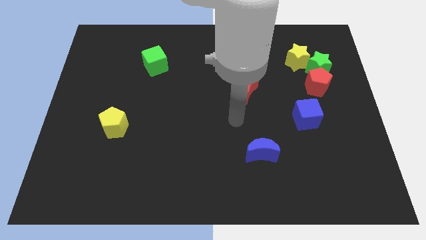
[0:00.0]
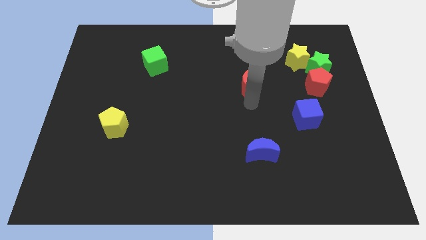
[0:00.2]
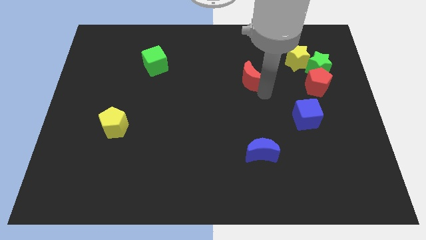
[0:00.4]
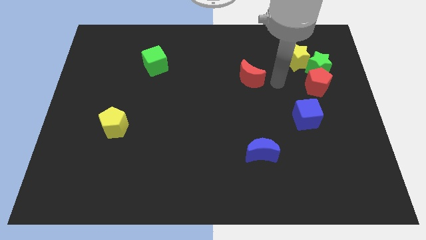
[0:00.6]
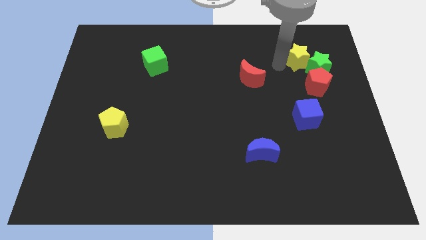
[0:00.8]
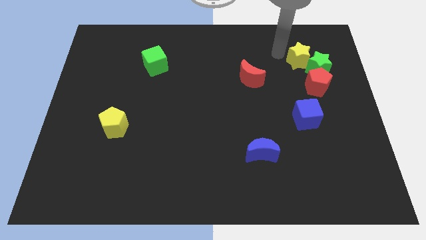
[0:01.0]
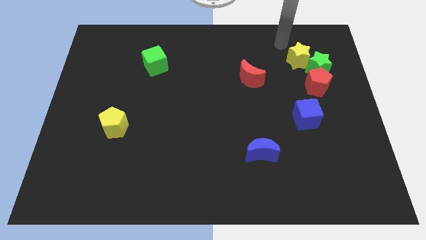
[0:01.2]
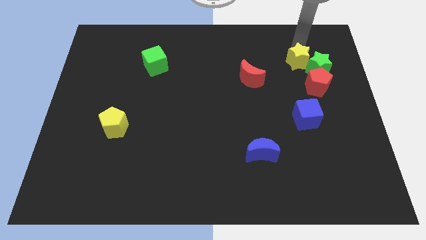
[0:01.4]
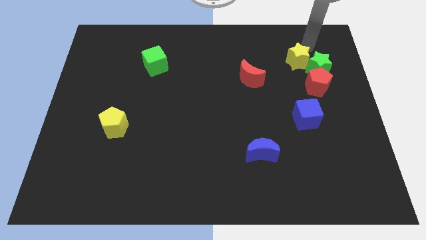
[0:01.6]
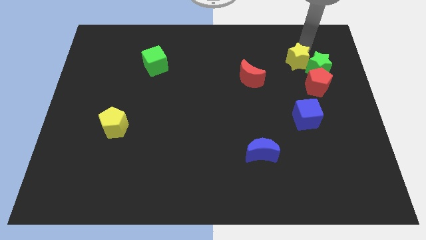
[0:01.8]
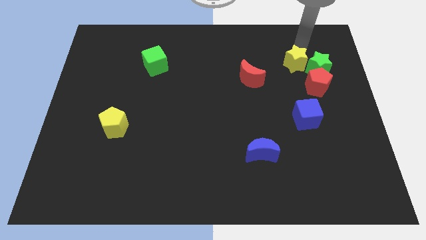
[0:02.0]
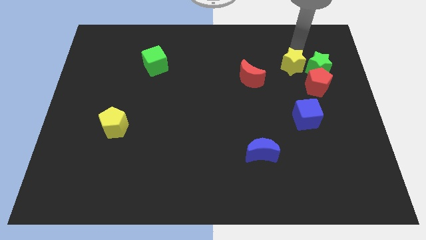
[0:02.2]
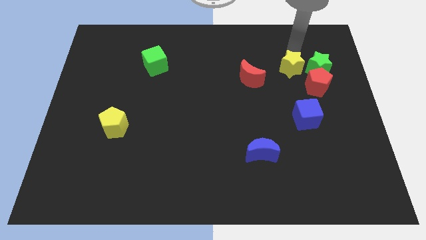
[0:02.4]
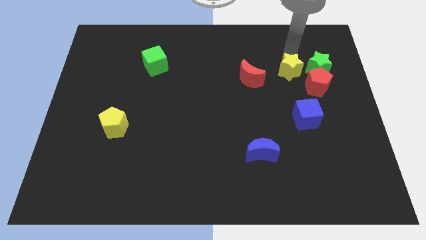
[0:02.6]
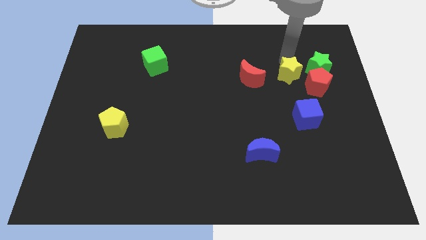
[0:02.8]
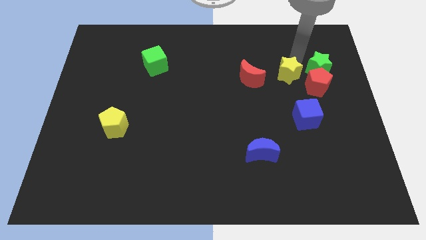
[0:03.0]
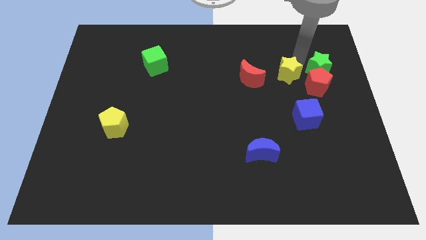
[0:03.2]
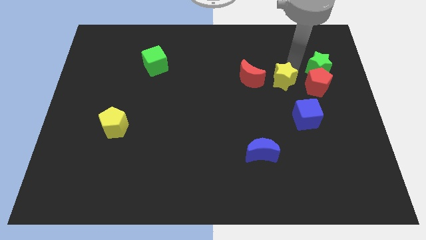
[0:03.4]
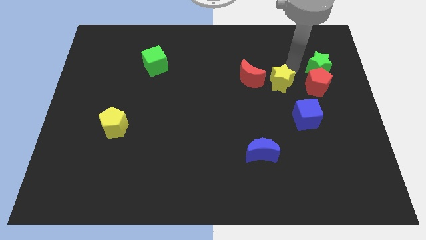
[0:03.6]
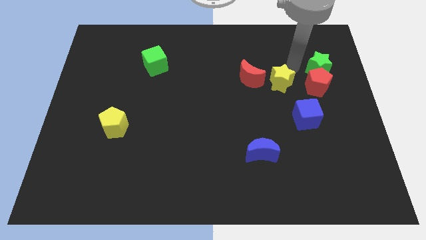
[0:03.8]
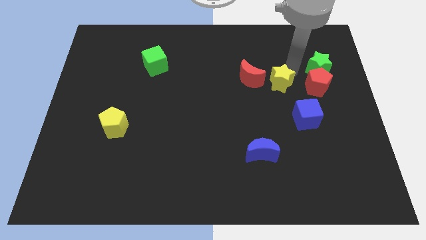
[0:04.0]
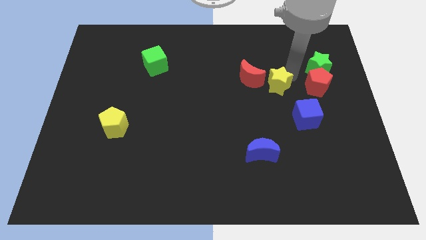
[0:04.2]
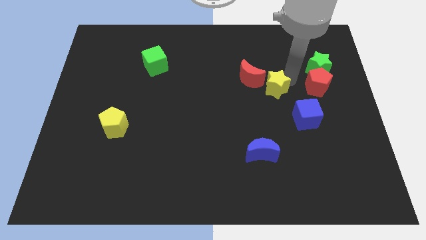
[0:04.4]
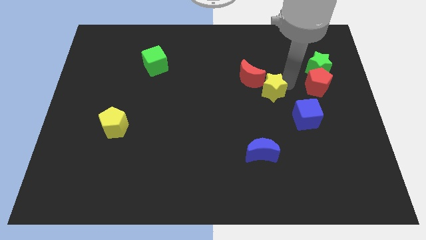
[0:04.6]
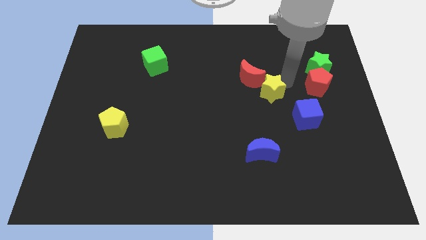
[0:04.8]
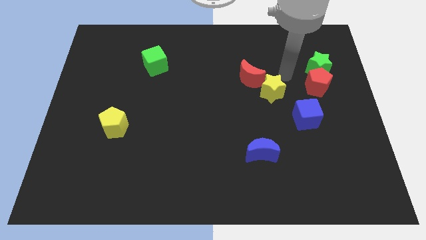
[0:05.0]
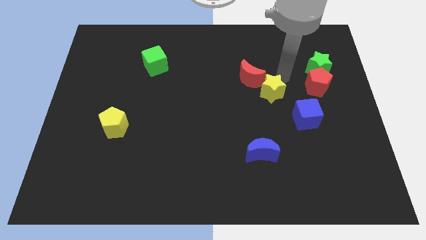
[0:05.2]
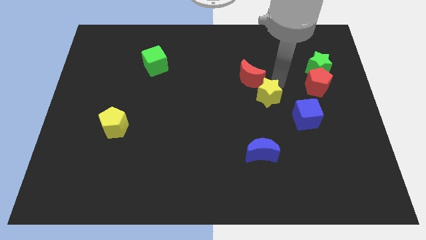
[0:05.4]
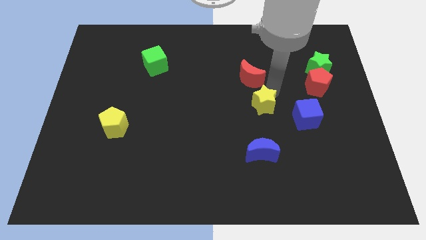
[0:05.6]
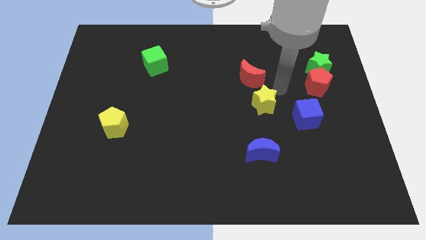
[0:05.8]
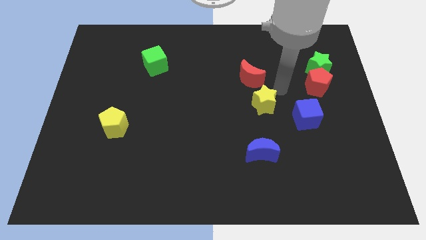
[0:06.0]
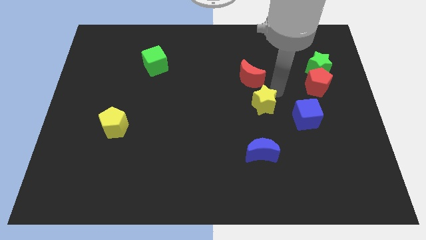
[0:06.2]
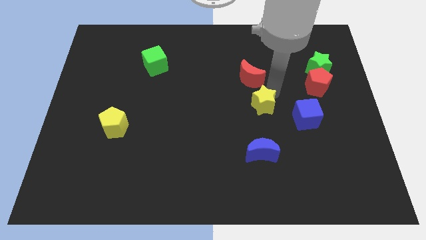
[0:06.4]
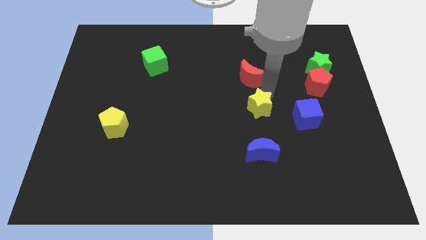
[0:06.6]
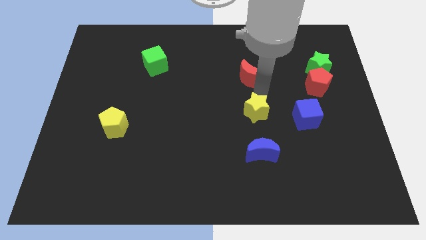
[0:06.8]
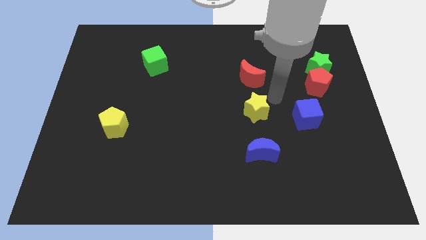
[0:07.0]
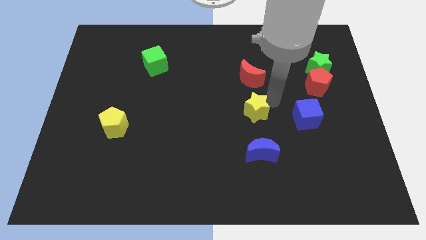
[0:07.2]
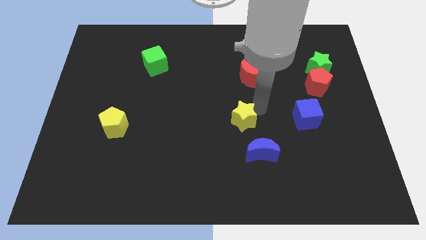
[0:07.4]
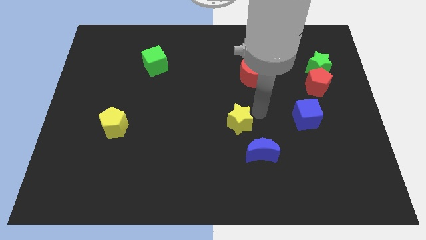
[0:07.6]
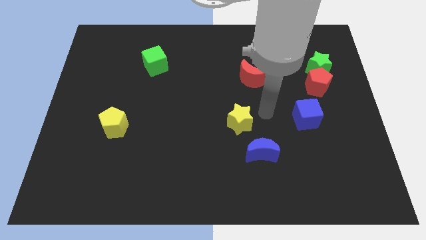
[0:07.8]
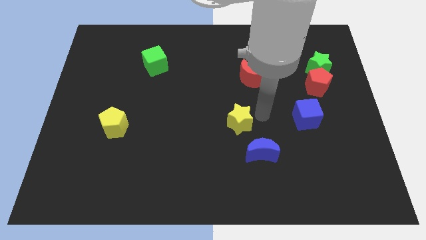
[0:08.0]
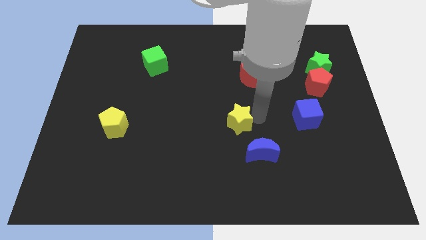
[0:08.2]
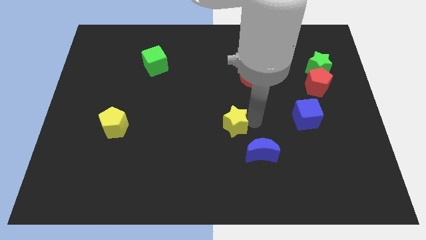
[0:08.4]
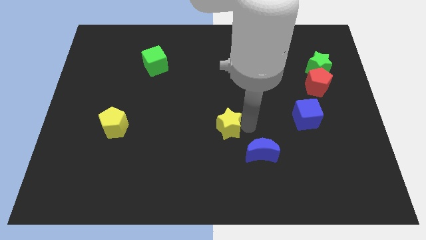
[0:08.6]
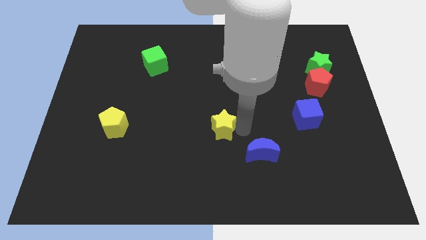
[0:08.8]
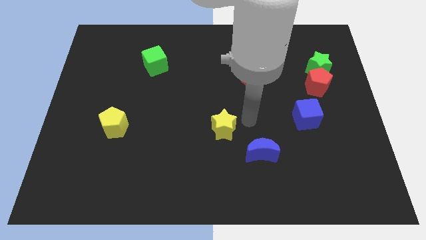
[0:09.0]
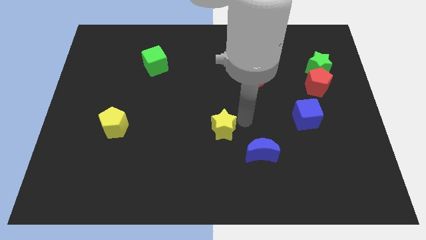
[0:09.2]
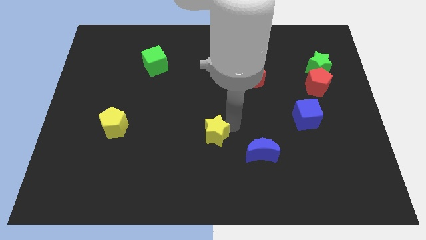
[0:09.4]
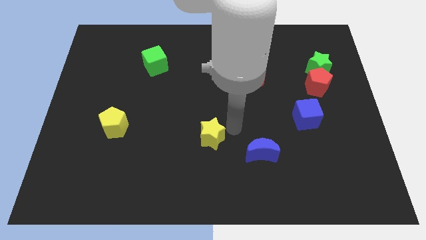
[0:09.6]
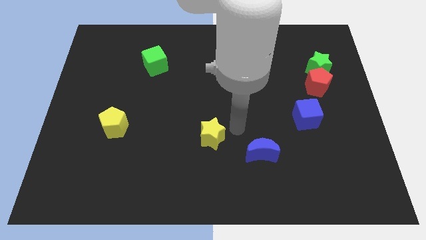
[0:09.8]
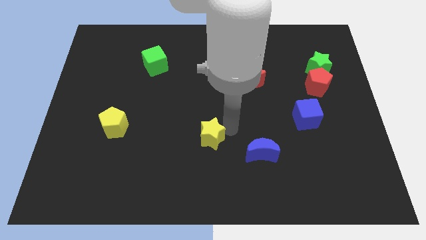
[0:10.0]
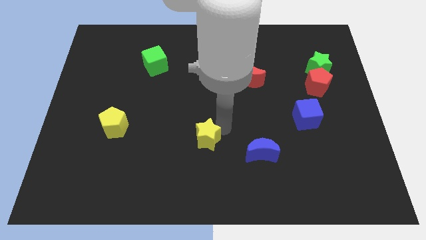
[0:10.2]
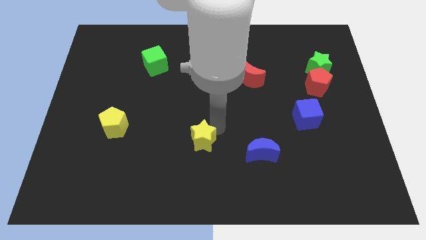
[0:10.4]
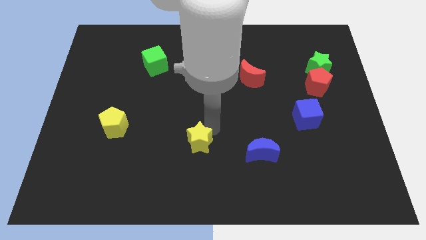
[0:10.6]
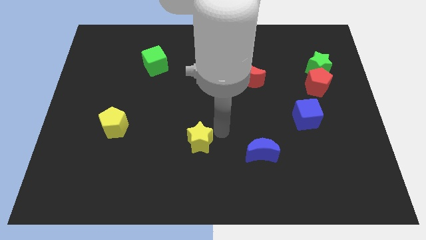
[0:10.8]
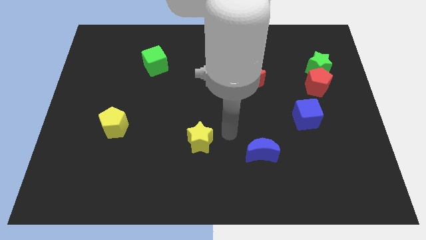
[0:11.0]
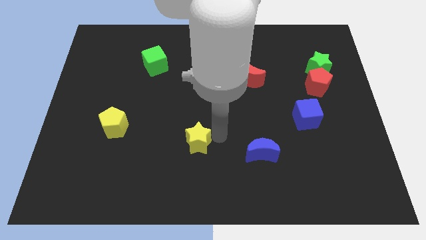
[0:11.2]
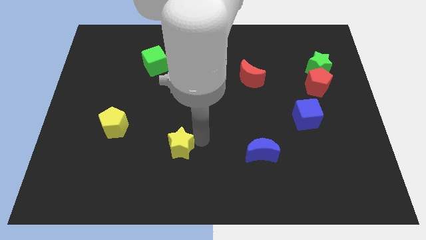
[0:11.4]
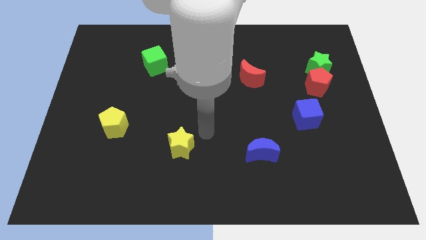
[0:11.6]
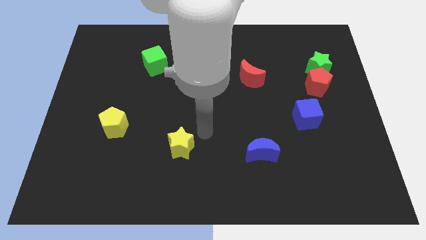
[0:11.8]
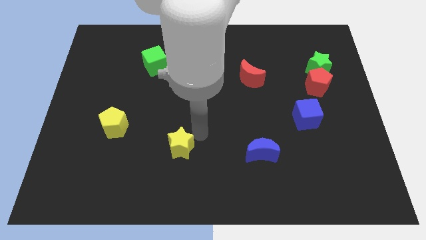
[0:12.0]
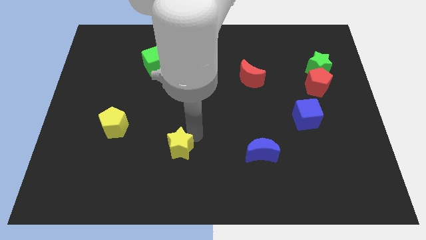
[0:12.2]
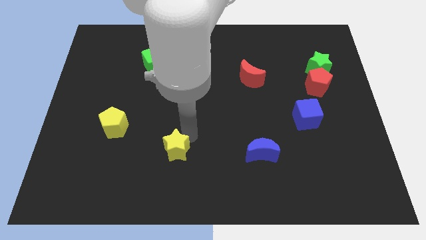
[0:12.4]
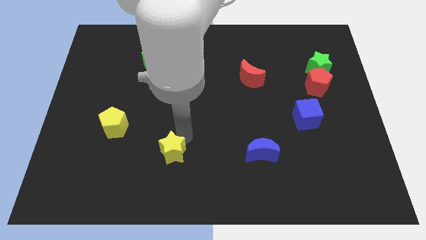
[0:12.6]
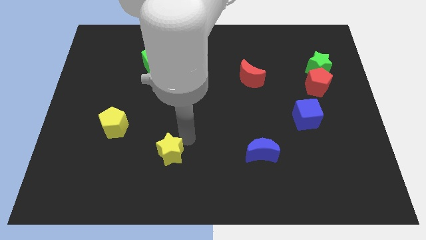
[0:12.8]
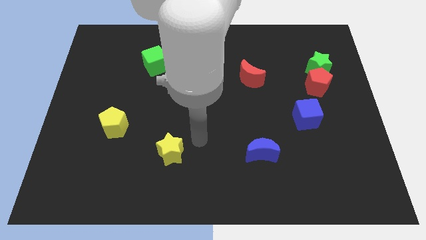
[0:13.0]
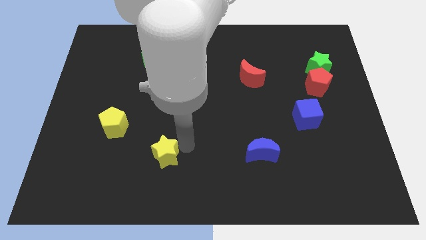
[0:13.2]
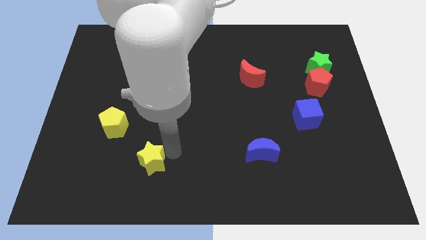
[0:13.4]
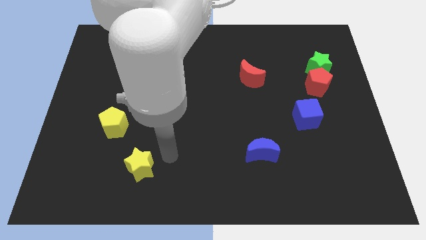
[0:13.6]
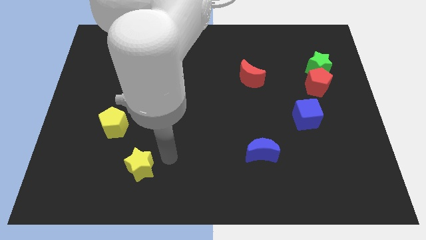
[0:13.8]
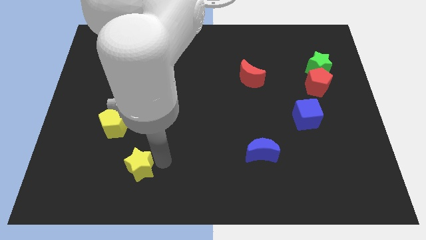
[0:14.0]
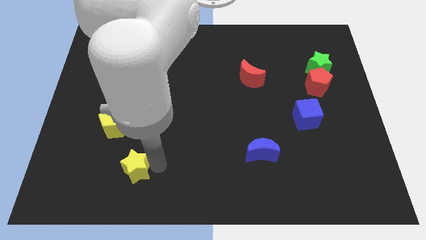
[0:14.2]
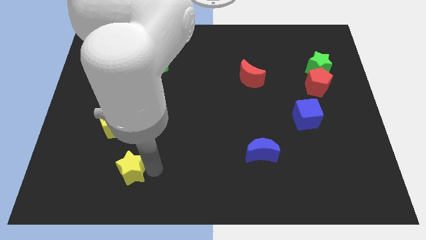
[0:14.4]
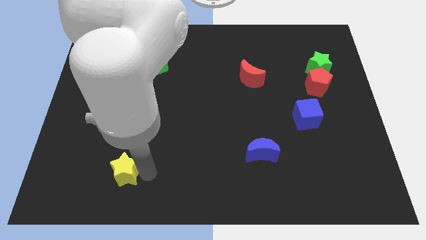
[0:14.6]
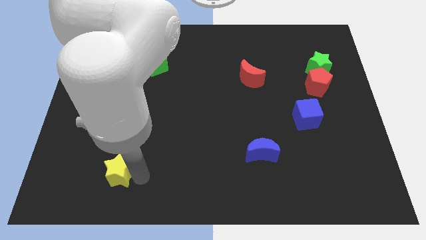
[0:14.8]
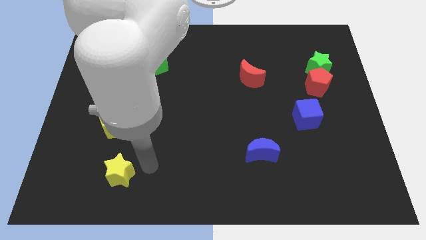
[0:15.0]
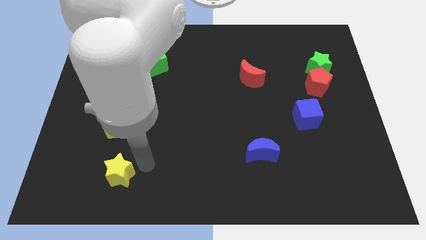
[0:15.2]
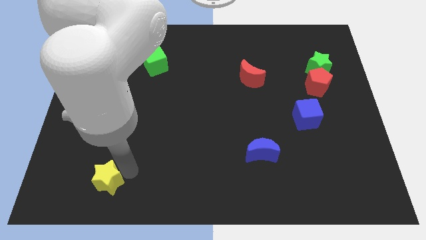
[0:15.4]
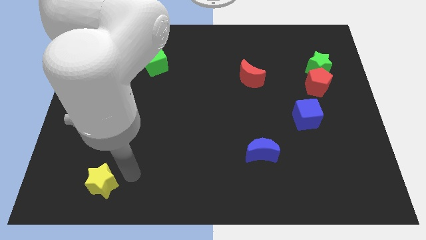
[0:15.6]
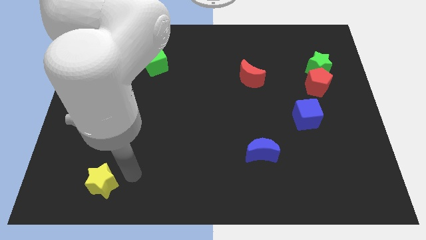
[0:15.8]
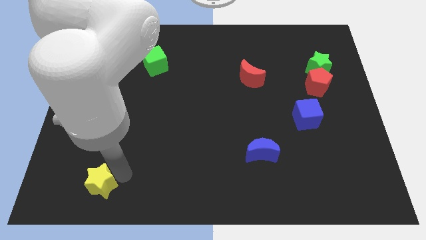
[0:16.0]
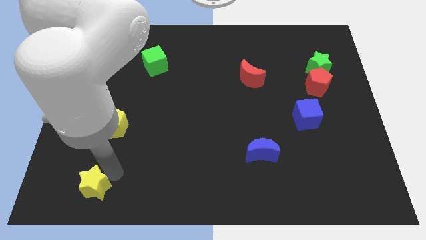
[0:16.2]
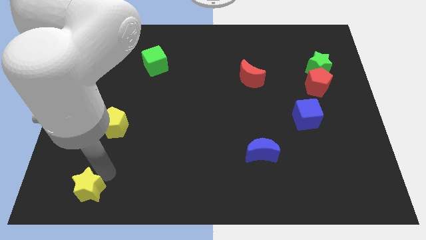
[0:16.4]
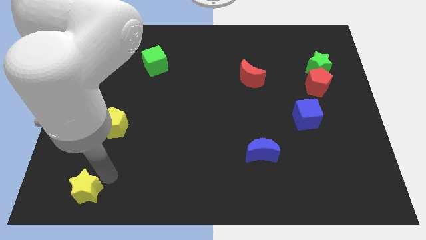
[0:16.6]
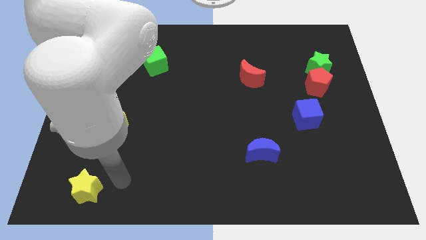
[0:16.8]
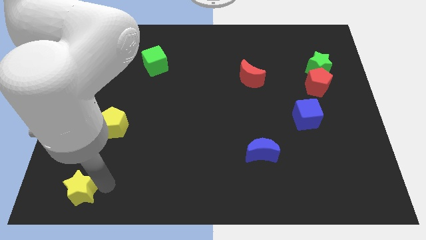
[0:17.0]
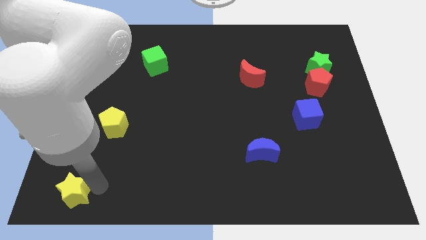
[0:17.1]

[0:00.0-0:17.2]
put the yellow star to the bottom left
